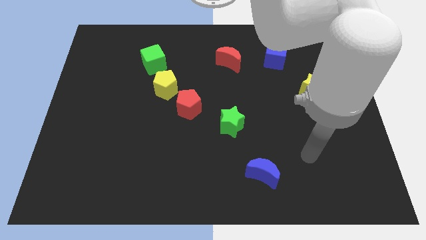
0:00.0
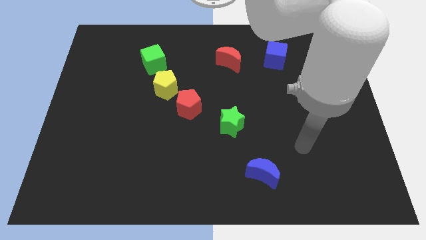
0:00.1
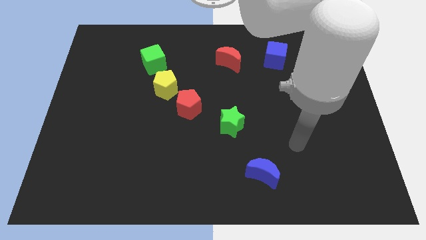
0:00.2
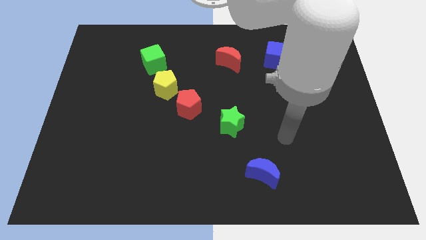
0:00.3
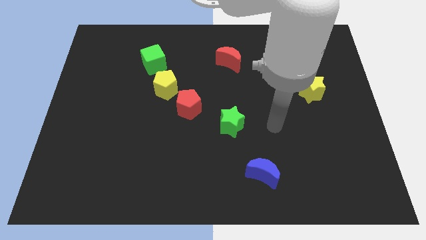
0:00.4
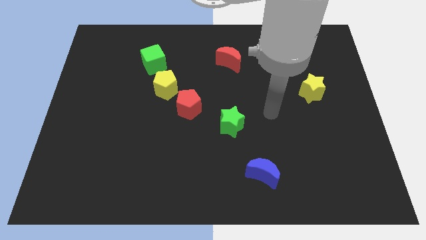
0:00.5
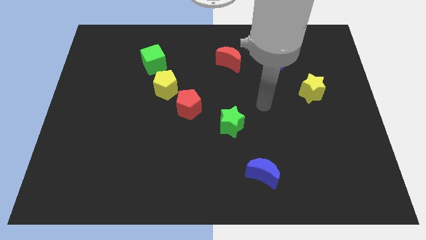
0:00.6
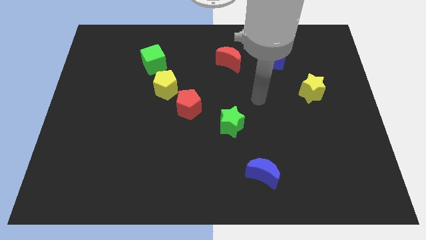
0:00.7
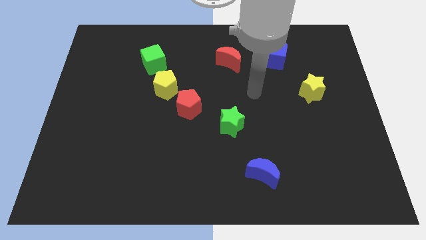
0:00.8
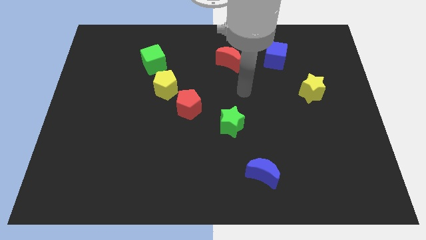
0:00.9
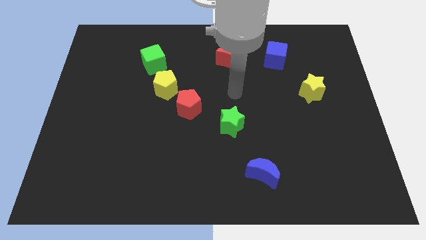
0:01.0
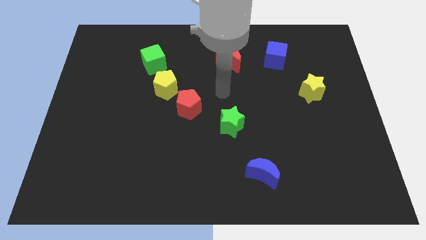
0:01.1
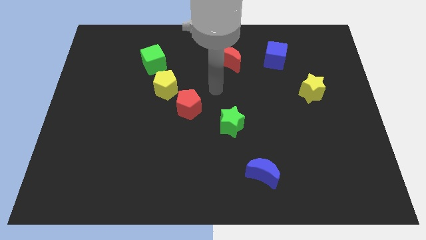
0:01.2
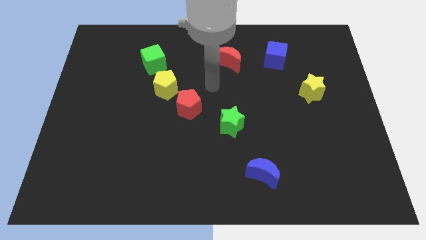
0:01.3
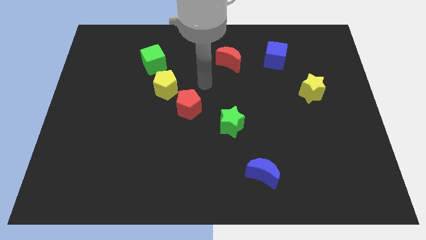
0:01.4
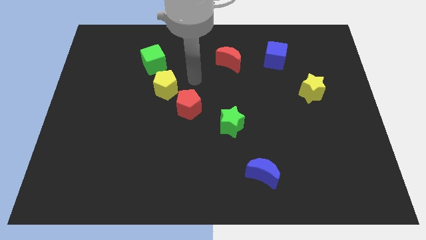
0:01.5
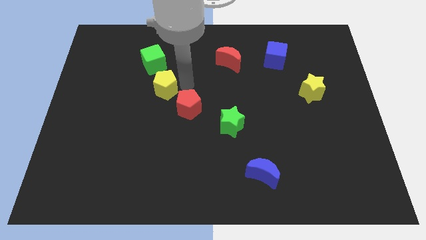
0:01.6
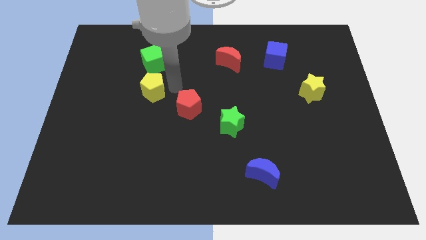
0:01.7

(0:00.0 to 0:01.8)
pull the red pentagon apart from the yellow pentagon

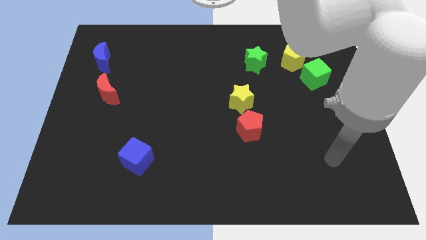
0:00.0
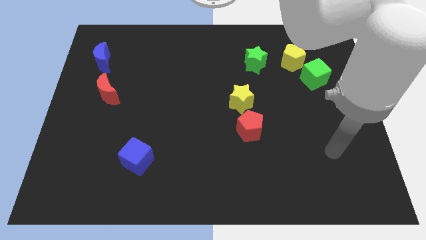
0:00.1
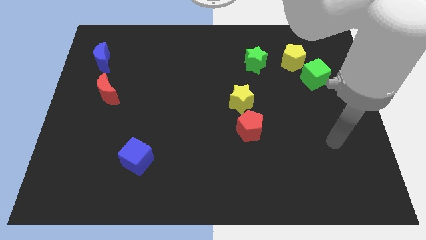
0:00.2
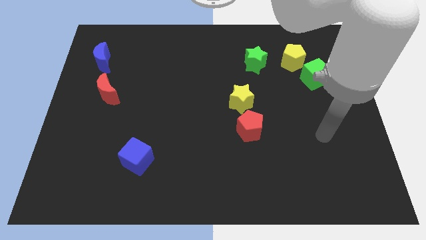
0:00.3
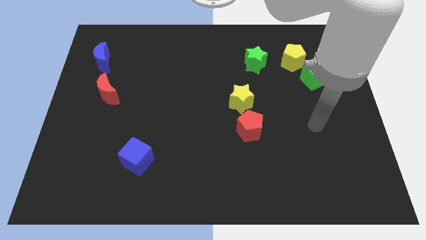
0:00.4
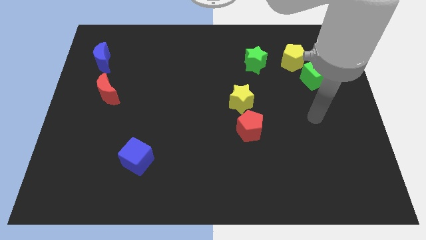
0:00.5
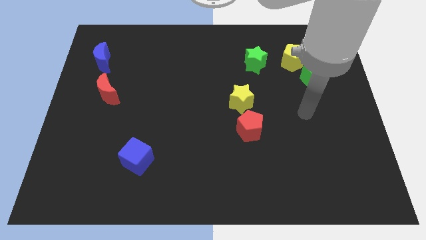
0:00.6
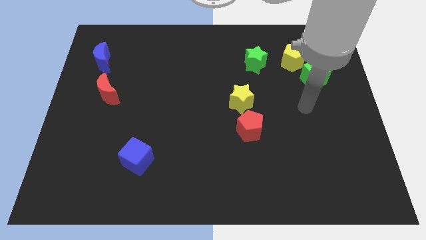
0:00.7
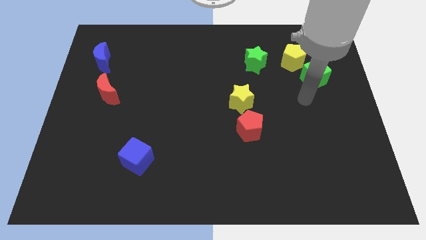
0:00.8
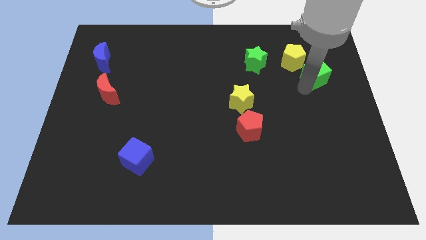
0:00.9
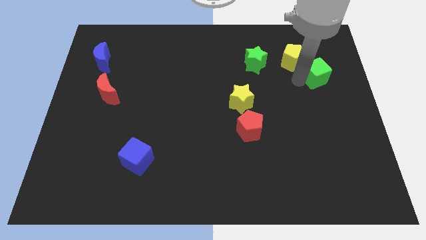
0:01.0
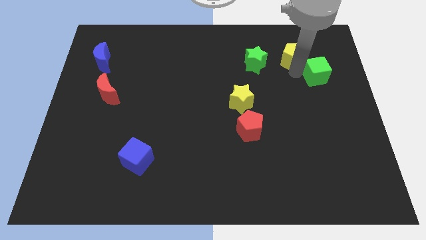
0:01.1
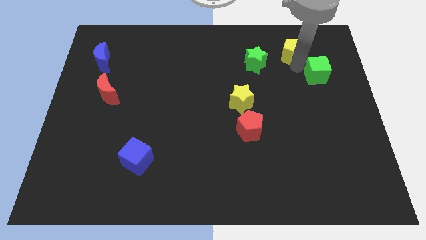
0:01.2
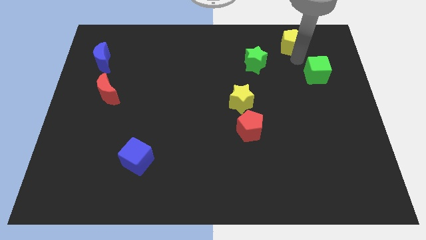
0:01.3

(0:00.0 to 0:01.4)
pull the green cube apart from the yellow pentagon

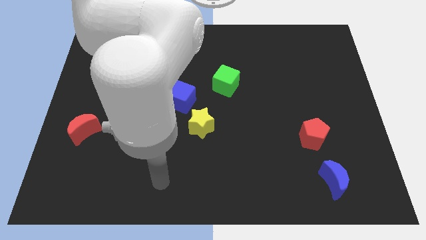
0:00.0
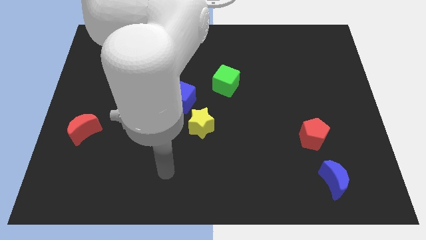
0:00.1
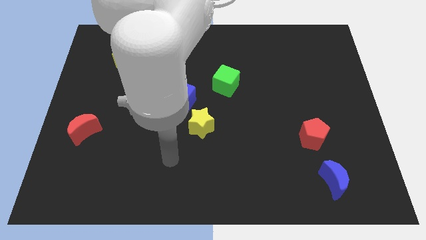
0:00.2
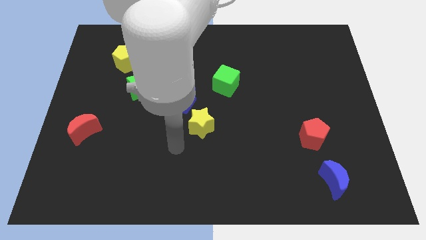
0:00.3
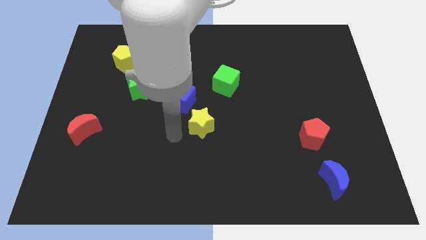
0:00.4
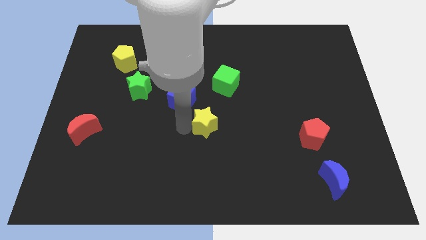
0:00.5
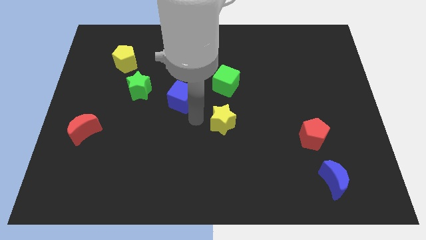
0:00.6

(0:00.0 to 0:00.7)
move the blue cube away from the yellow star

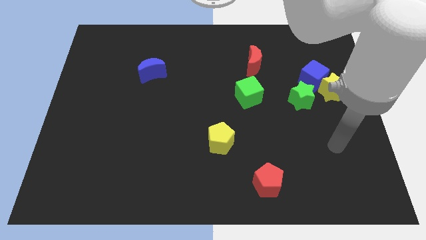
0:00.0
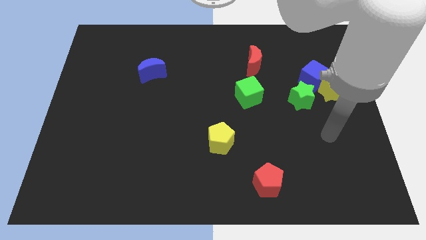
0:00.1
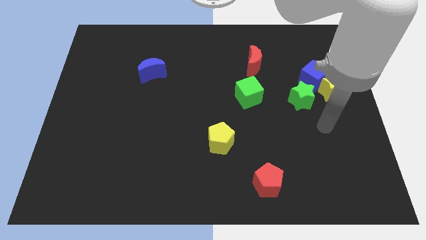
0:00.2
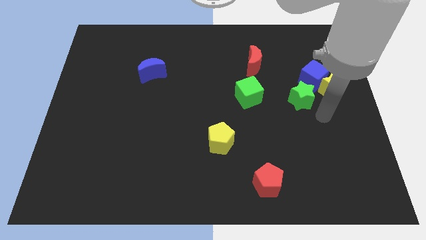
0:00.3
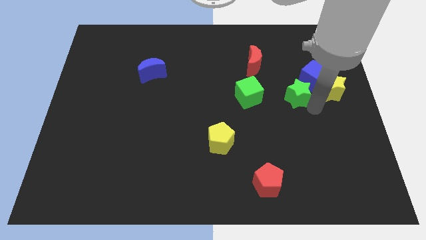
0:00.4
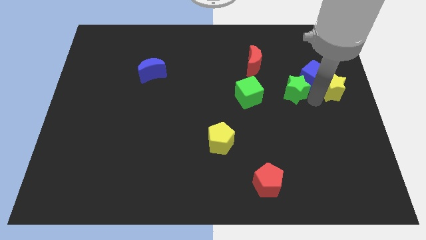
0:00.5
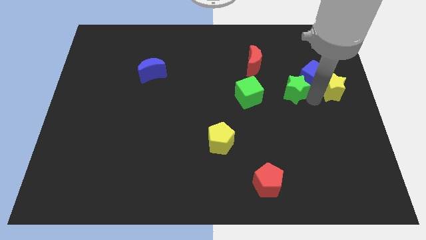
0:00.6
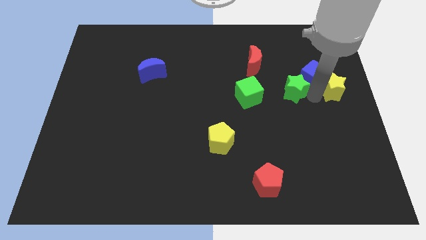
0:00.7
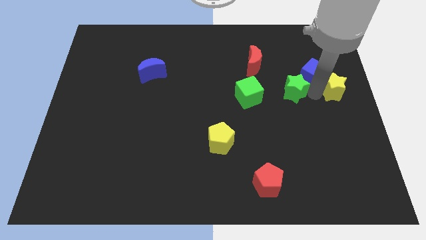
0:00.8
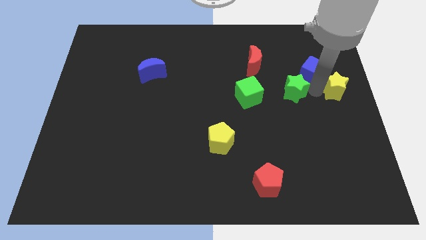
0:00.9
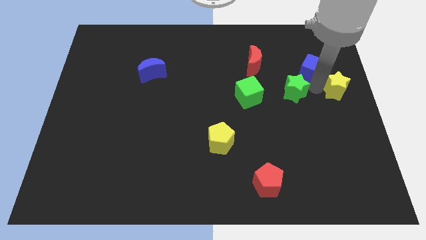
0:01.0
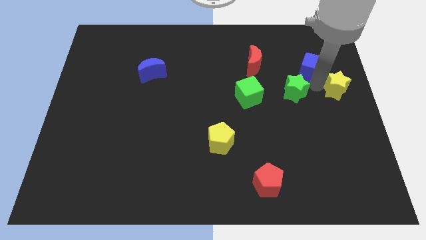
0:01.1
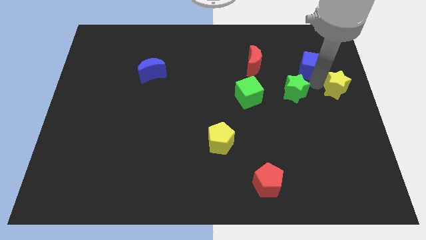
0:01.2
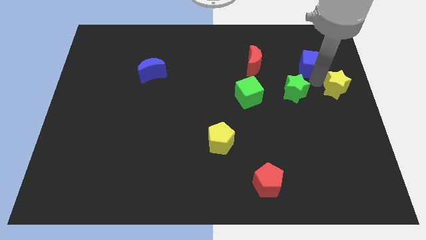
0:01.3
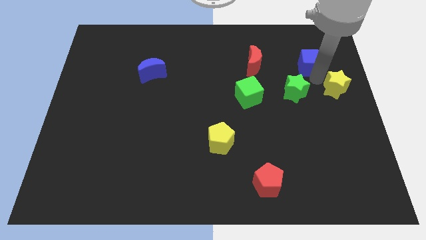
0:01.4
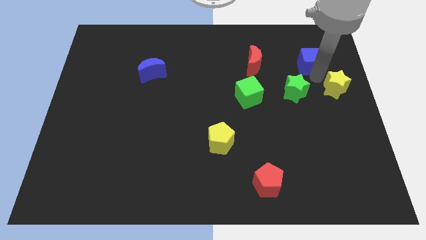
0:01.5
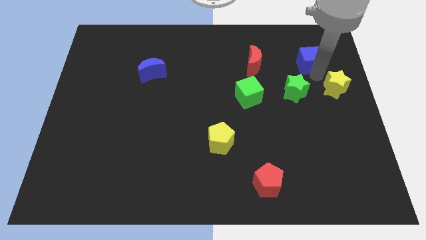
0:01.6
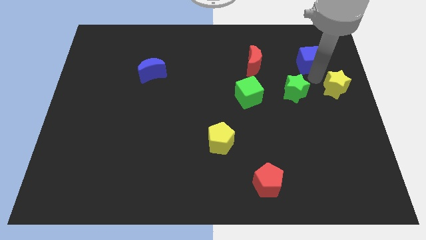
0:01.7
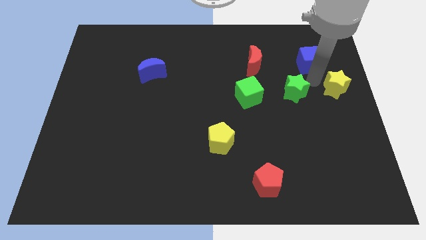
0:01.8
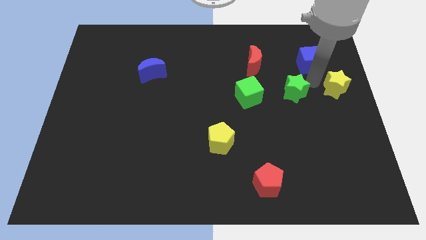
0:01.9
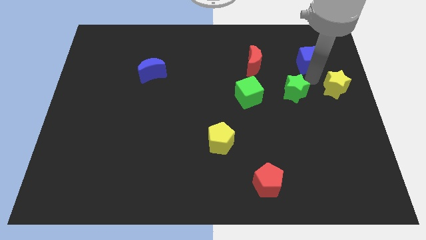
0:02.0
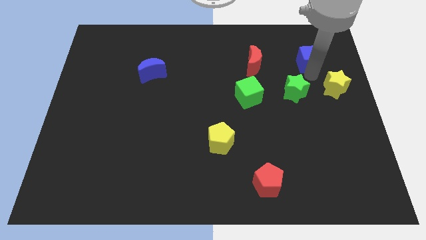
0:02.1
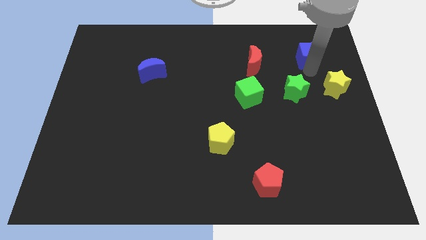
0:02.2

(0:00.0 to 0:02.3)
separate the blue cube from the yellow star and green star

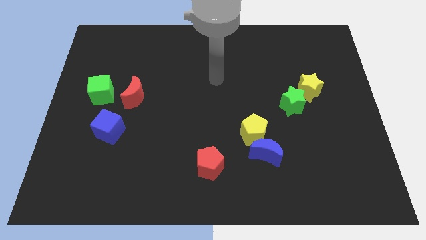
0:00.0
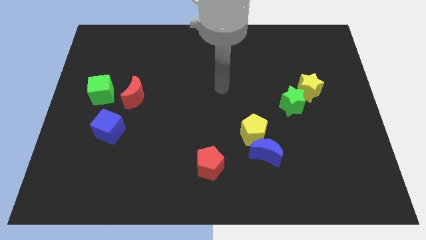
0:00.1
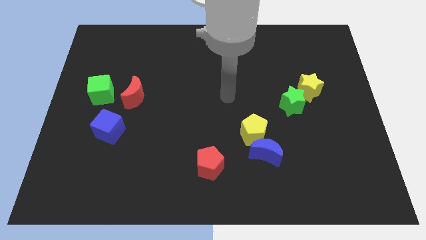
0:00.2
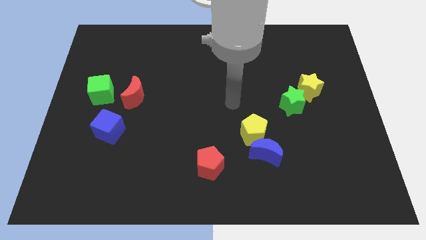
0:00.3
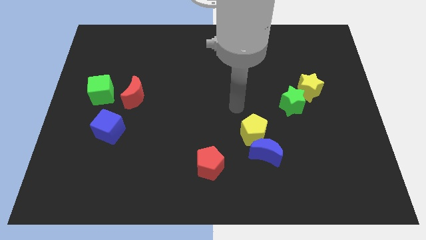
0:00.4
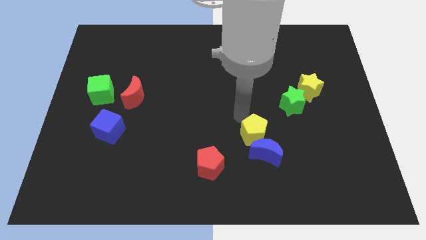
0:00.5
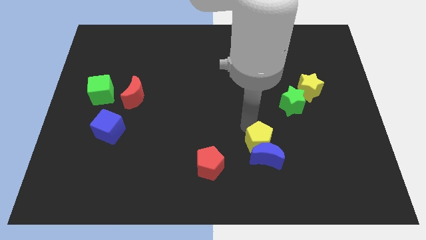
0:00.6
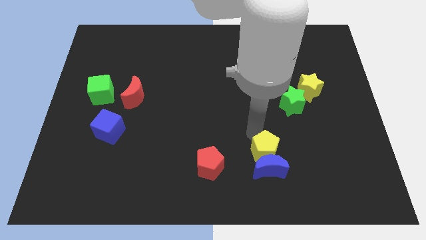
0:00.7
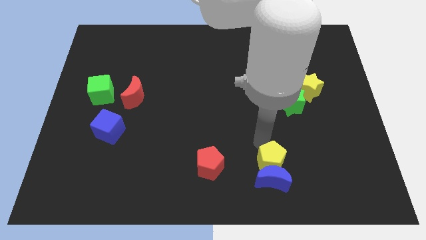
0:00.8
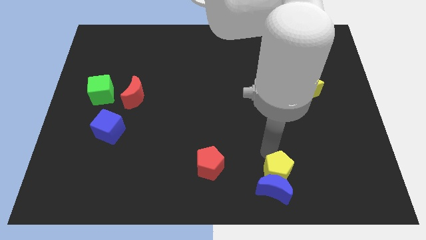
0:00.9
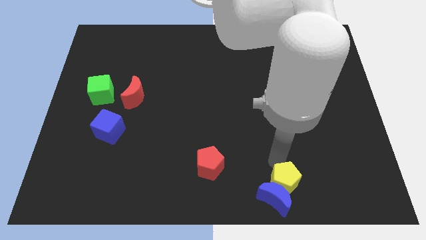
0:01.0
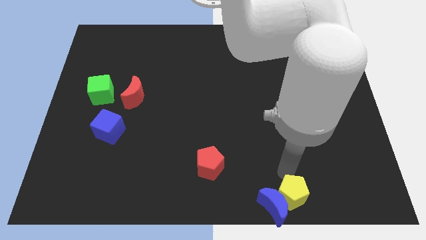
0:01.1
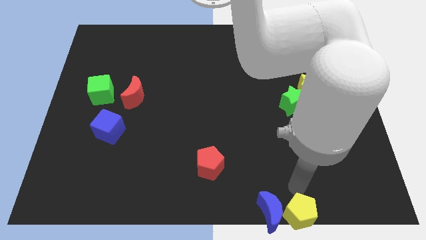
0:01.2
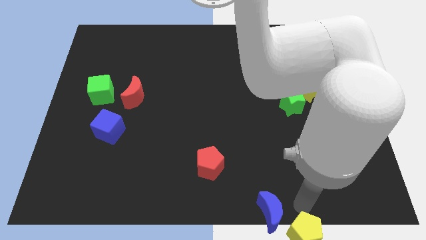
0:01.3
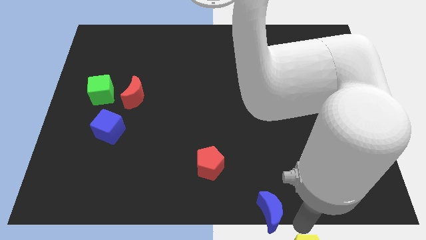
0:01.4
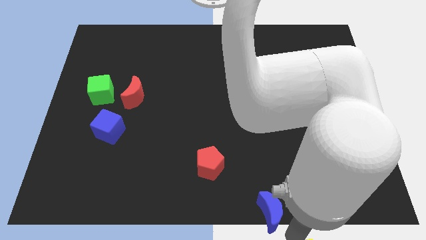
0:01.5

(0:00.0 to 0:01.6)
move the blue moon away from the yellow pentagon

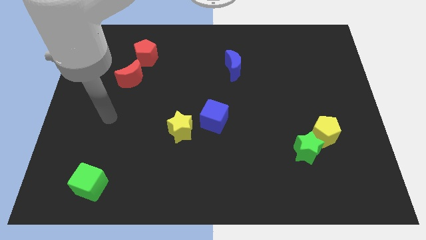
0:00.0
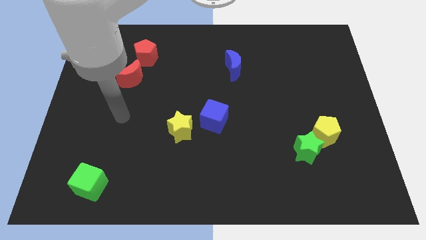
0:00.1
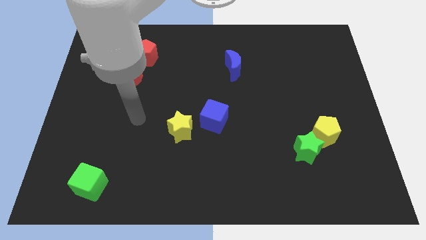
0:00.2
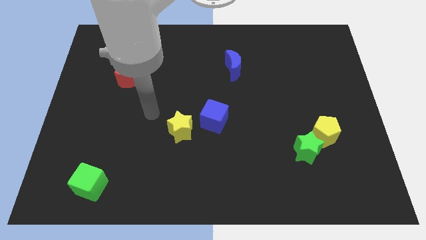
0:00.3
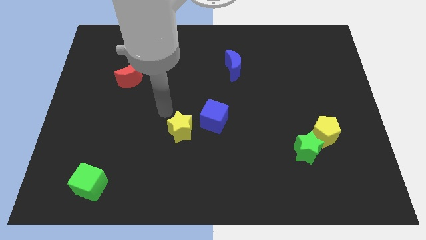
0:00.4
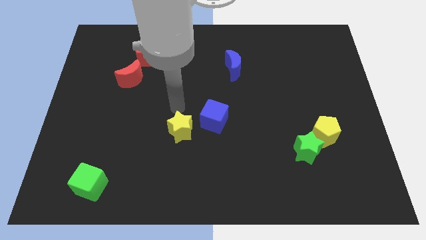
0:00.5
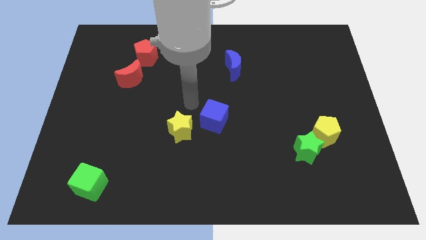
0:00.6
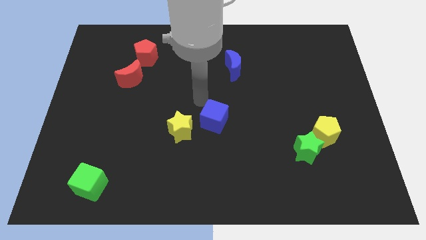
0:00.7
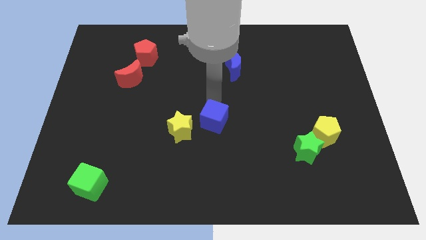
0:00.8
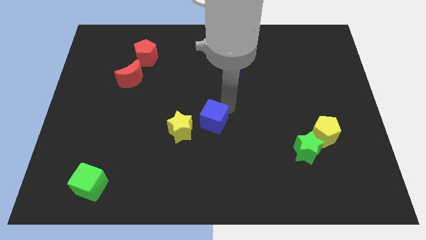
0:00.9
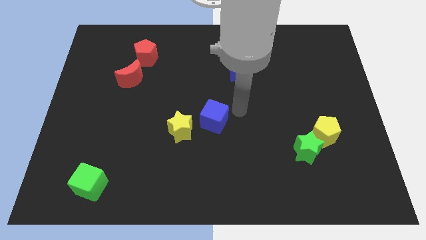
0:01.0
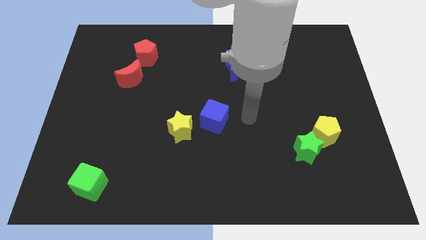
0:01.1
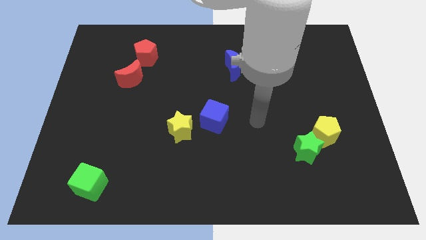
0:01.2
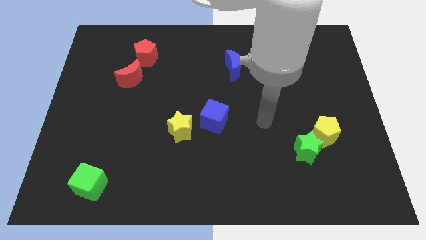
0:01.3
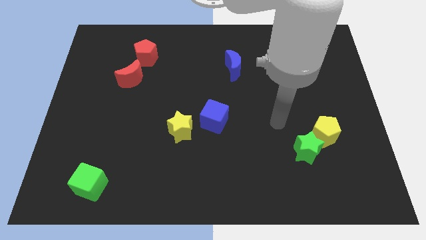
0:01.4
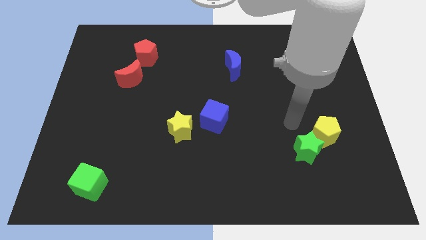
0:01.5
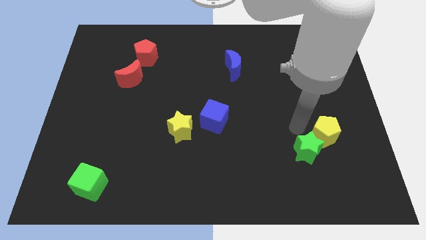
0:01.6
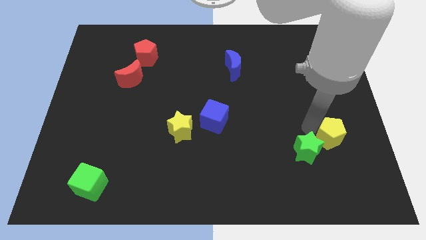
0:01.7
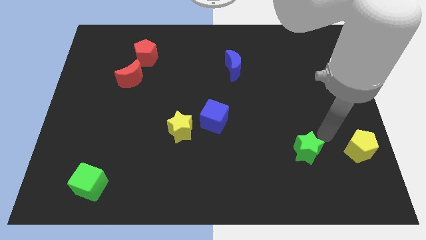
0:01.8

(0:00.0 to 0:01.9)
separate the green star from the yellow pentagon
